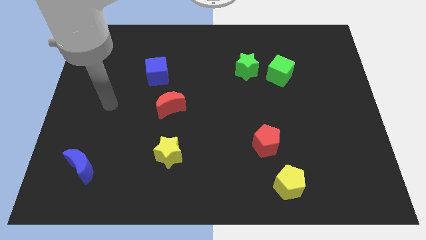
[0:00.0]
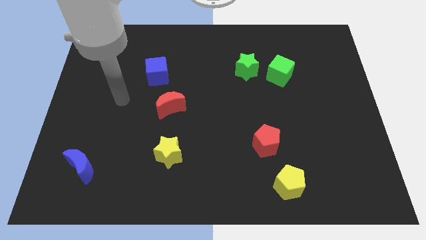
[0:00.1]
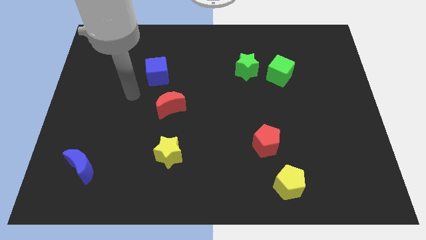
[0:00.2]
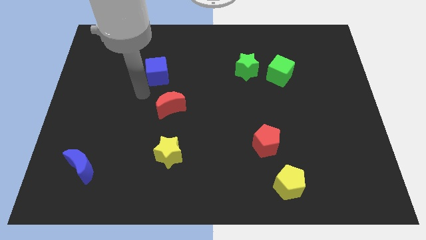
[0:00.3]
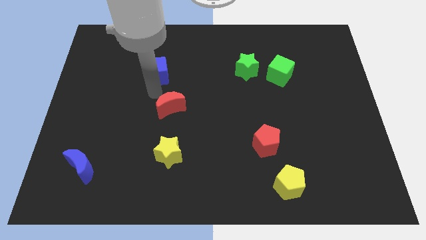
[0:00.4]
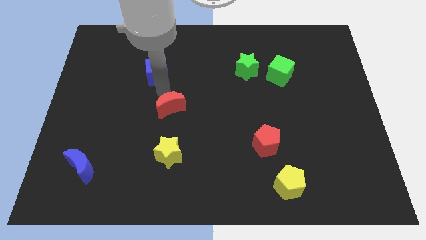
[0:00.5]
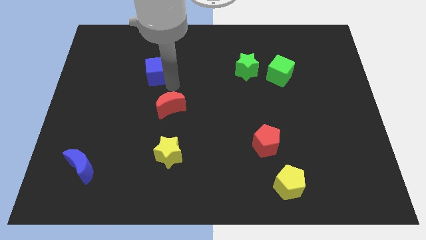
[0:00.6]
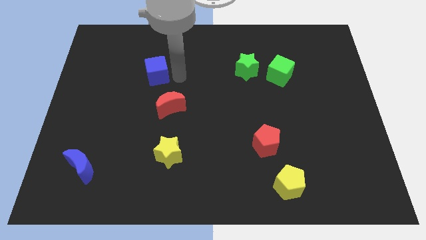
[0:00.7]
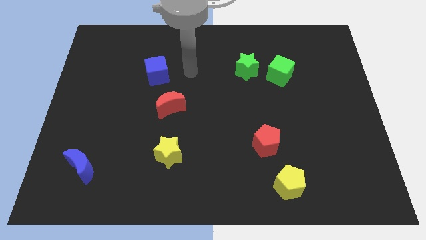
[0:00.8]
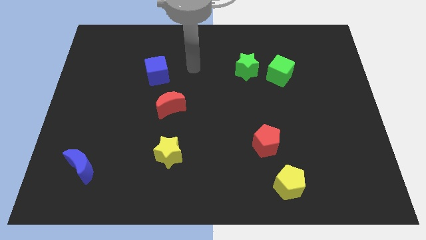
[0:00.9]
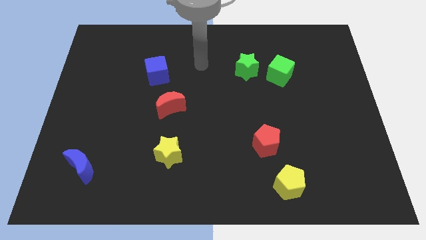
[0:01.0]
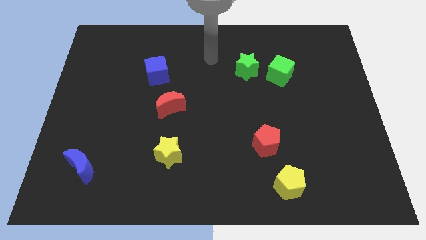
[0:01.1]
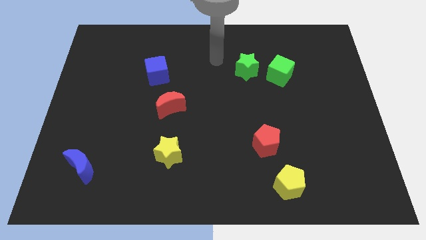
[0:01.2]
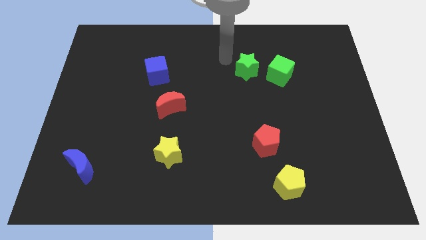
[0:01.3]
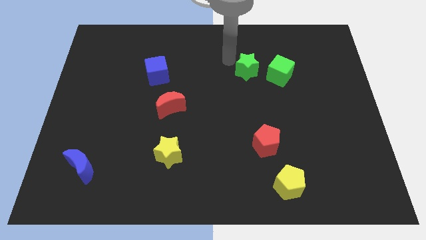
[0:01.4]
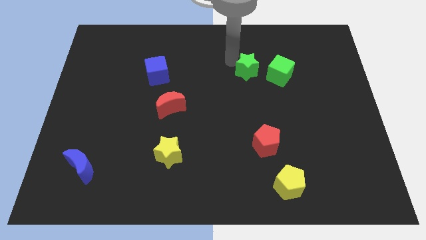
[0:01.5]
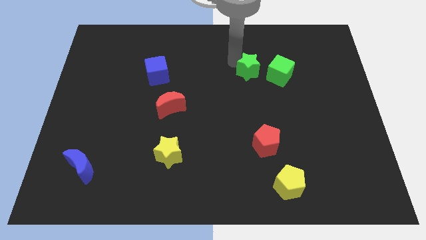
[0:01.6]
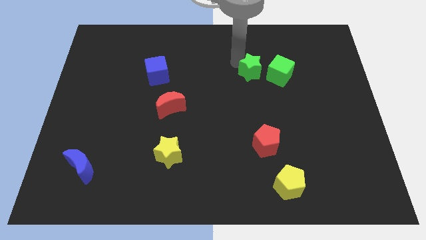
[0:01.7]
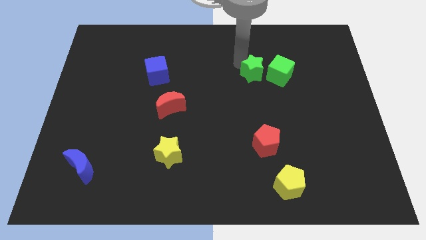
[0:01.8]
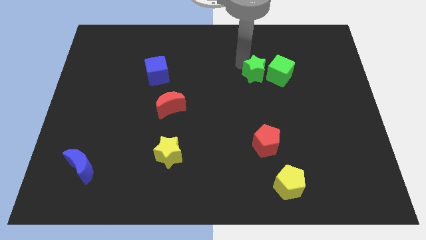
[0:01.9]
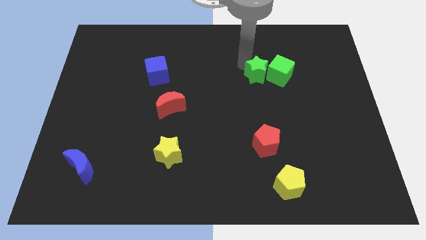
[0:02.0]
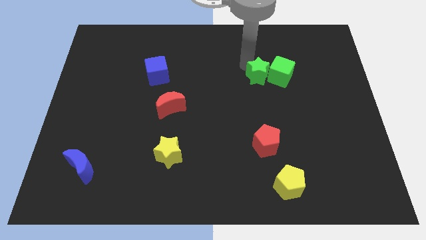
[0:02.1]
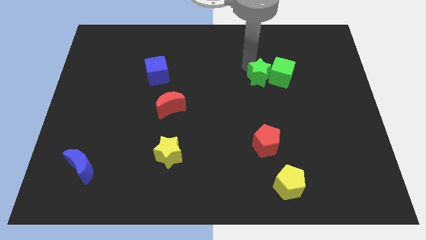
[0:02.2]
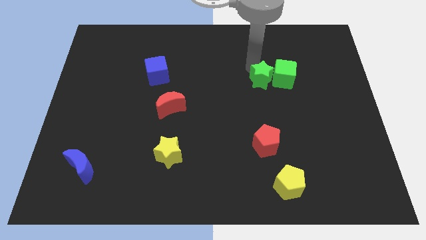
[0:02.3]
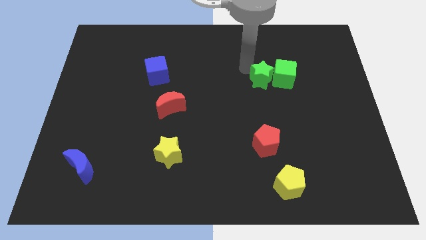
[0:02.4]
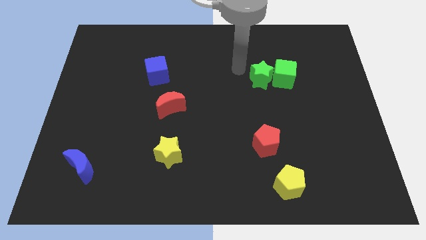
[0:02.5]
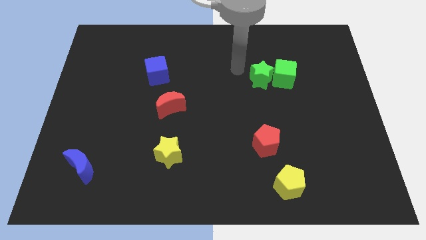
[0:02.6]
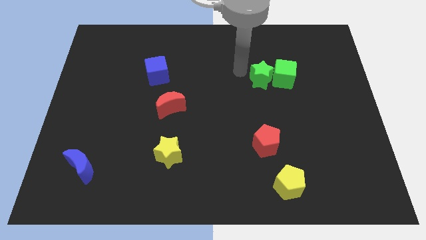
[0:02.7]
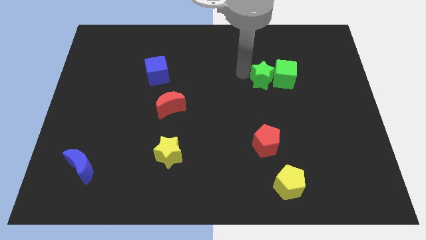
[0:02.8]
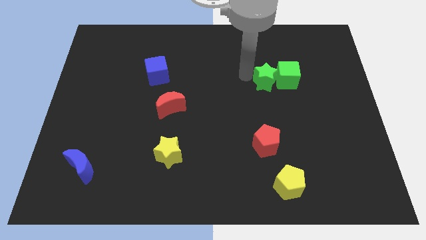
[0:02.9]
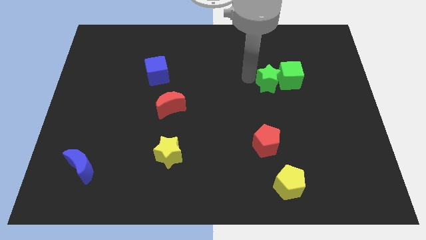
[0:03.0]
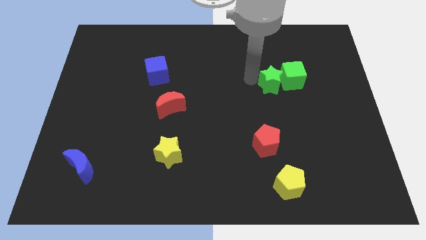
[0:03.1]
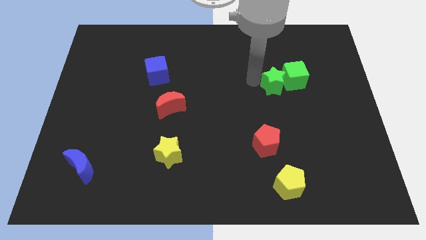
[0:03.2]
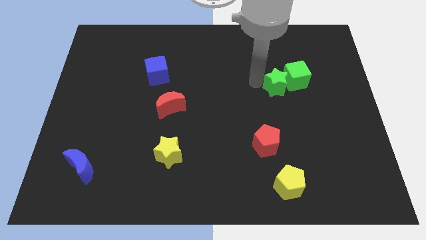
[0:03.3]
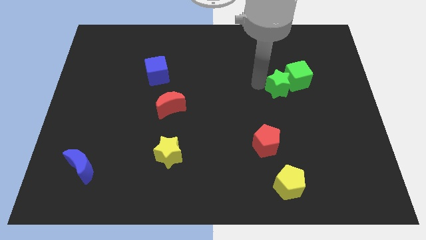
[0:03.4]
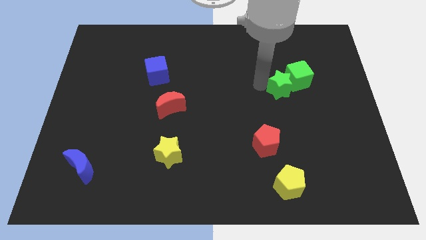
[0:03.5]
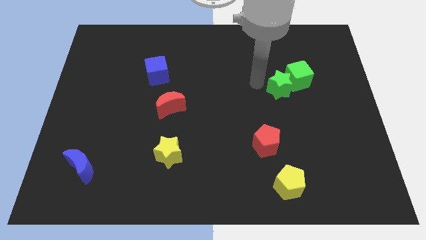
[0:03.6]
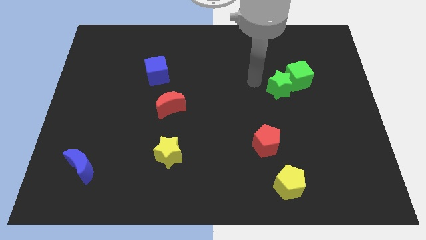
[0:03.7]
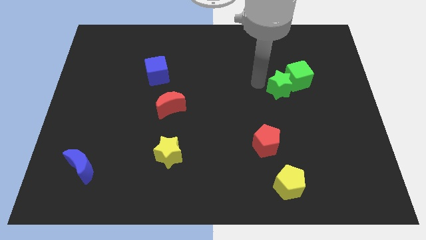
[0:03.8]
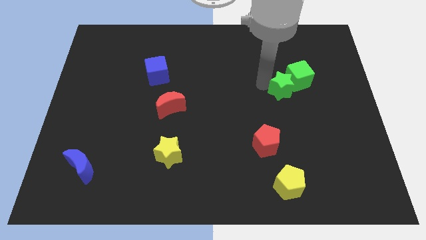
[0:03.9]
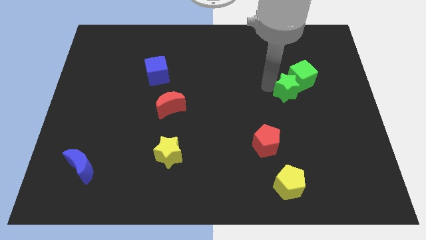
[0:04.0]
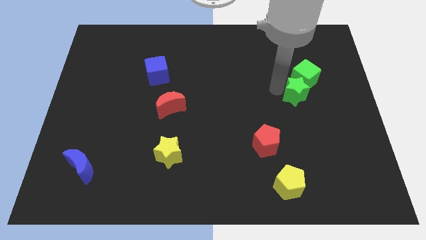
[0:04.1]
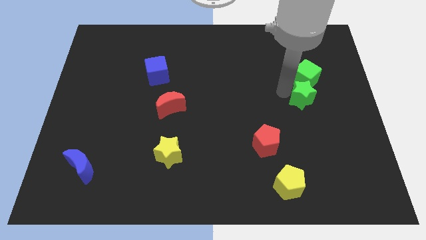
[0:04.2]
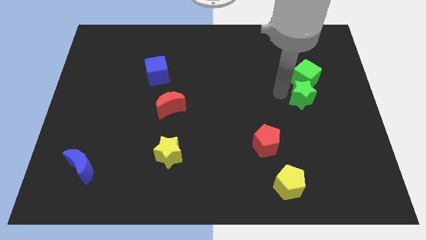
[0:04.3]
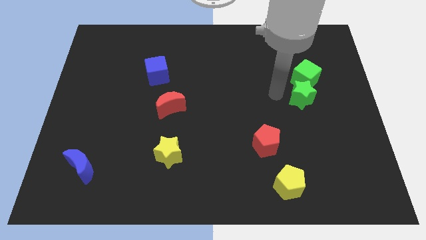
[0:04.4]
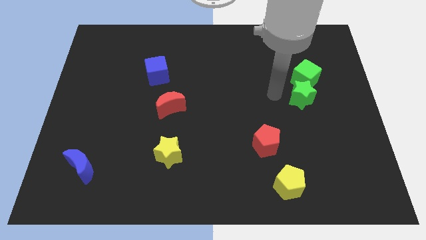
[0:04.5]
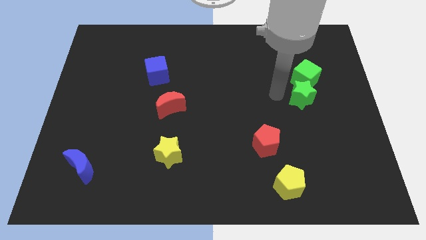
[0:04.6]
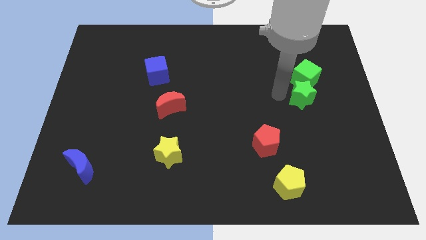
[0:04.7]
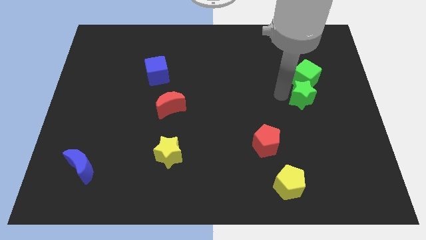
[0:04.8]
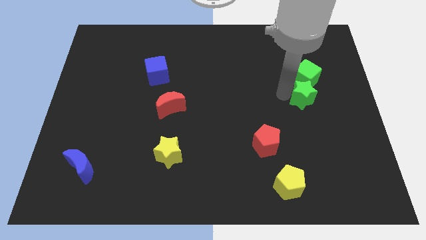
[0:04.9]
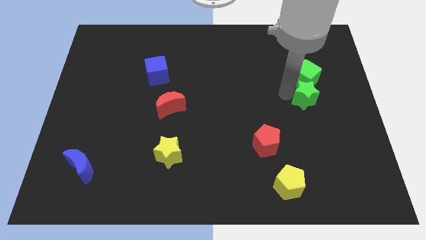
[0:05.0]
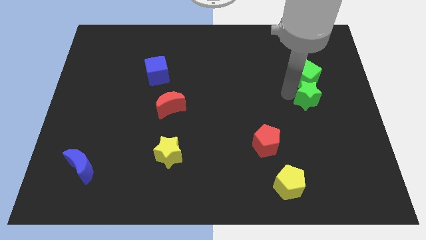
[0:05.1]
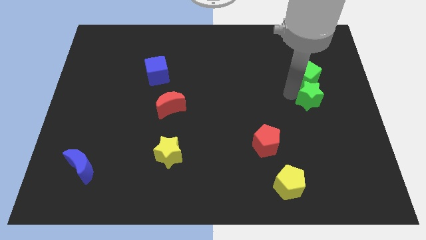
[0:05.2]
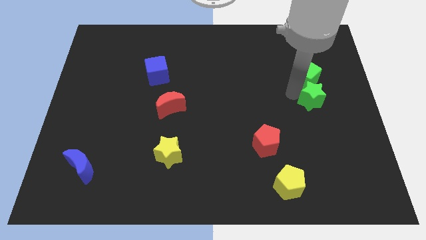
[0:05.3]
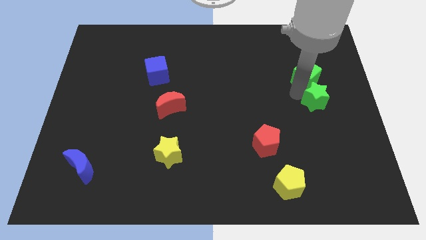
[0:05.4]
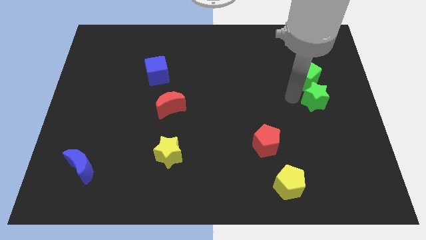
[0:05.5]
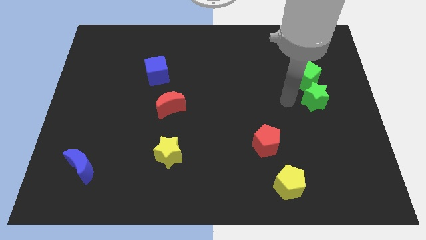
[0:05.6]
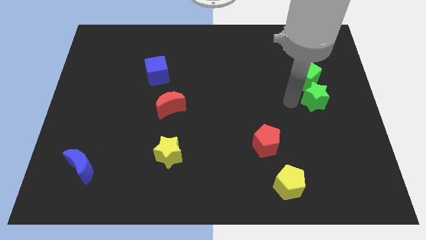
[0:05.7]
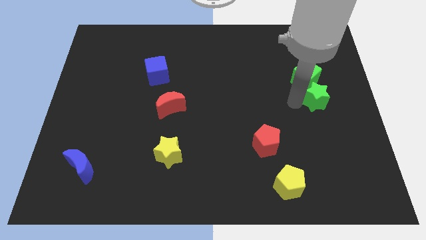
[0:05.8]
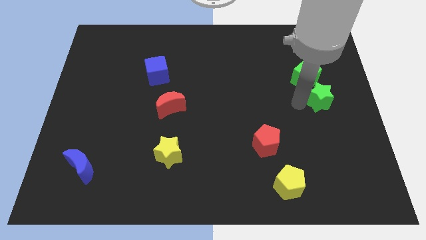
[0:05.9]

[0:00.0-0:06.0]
slide the green star to the center right
